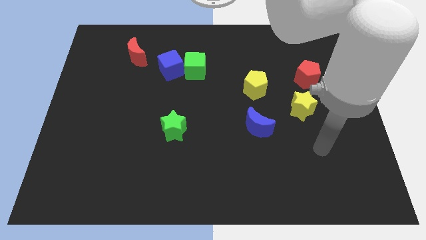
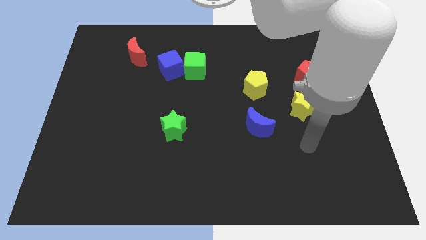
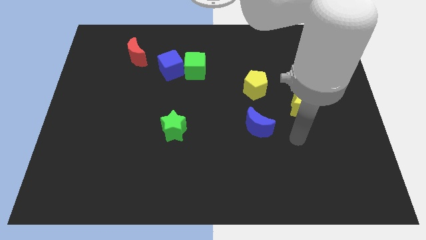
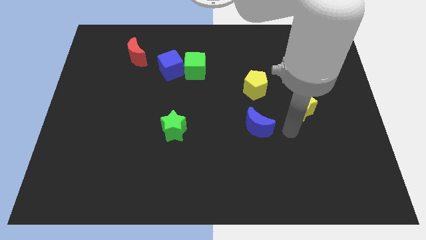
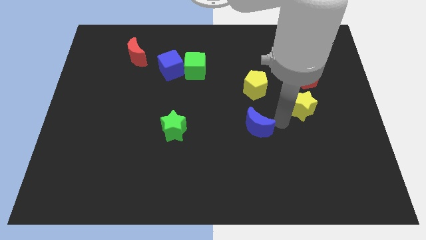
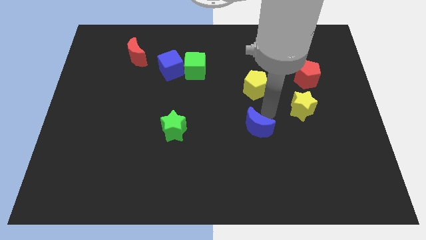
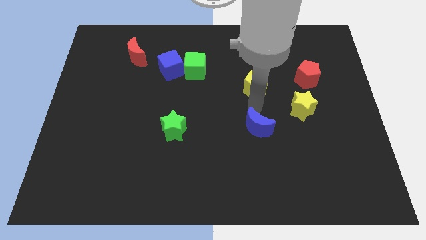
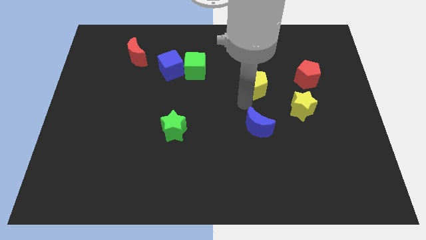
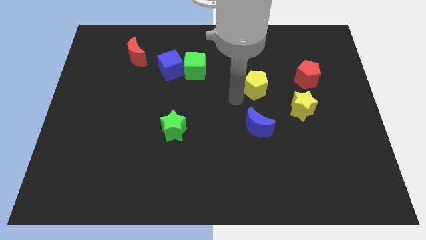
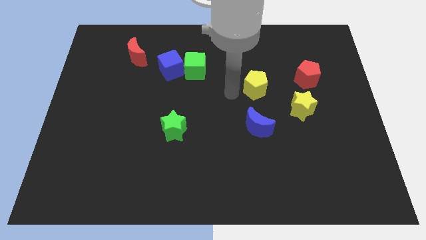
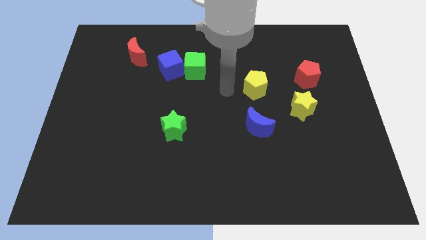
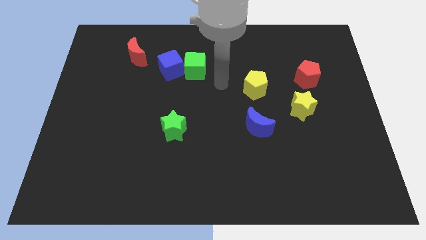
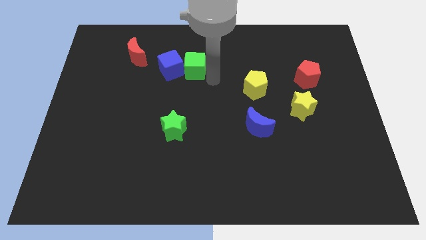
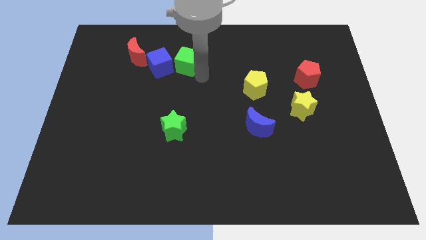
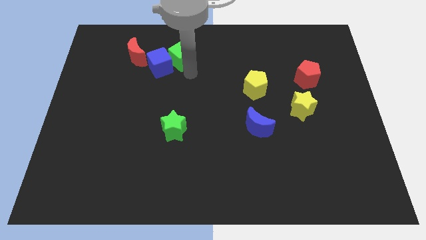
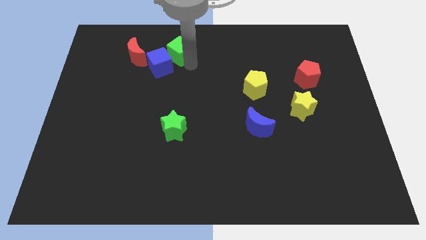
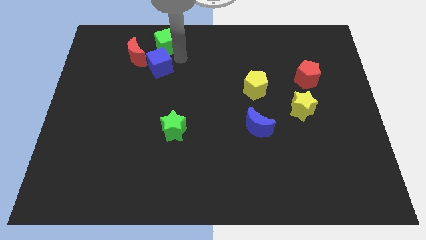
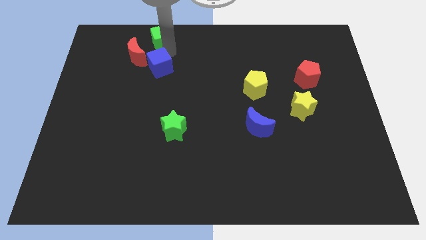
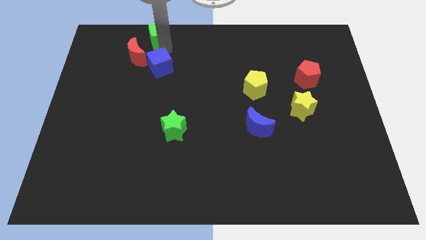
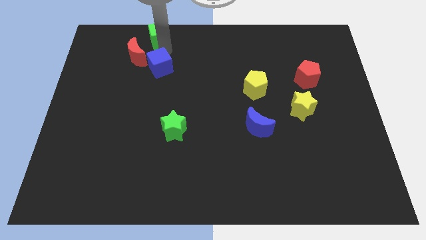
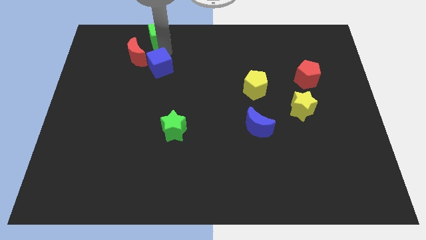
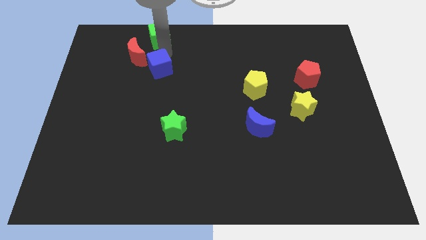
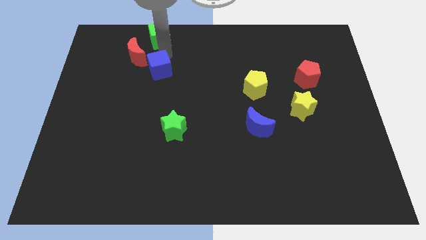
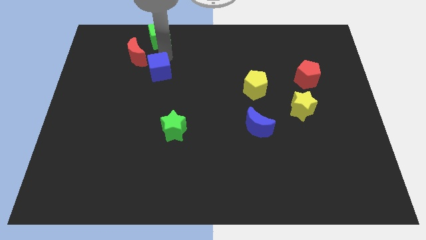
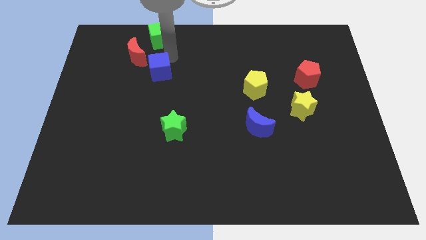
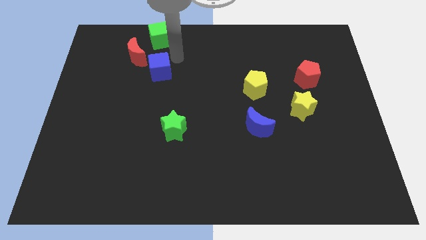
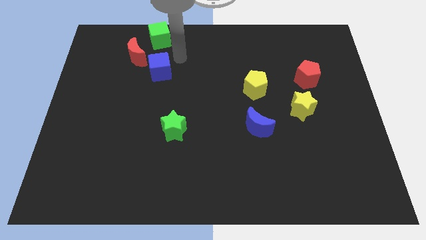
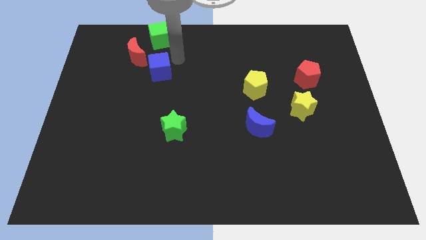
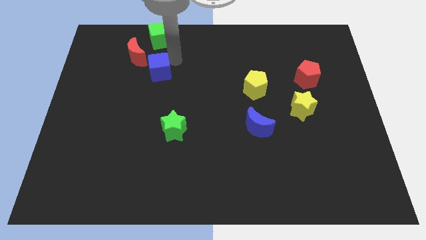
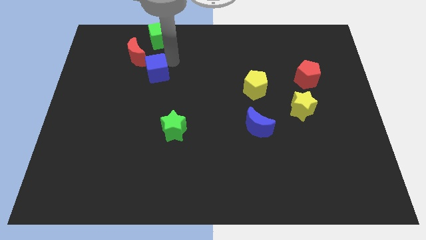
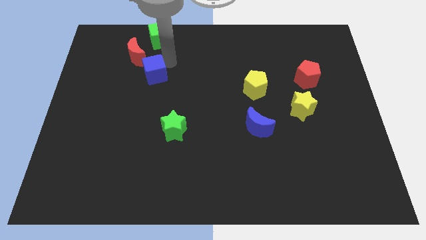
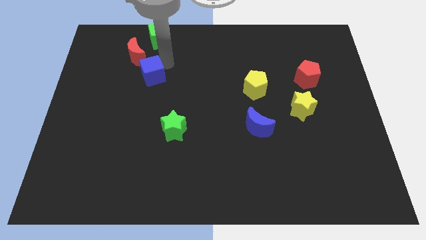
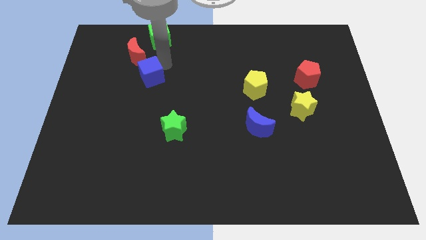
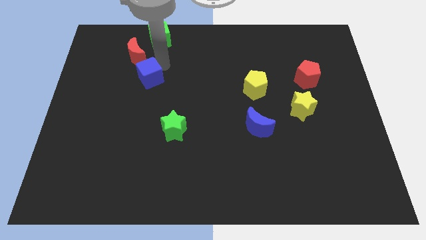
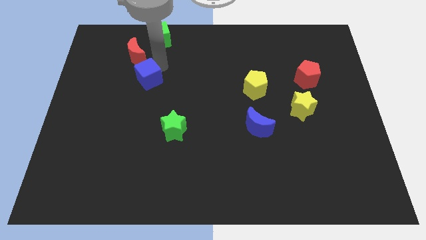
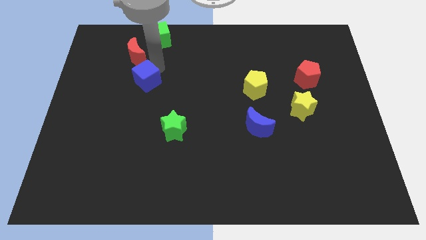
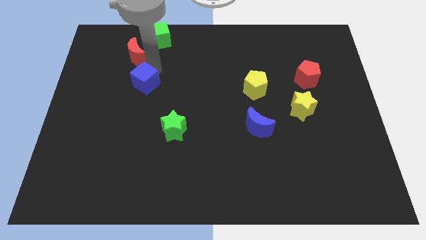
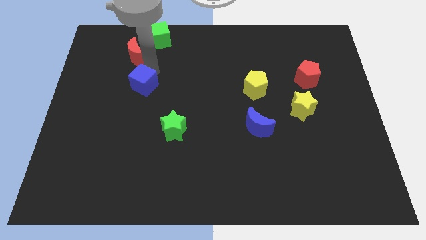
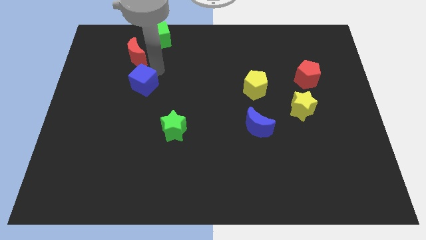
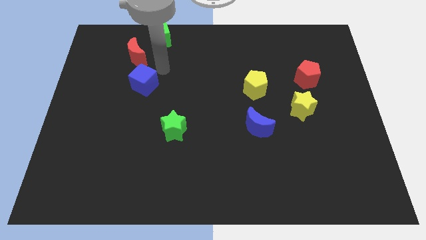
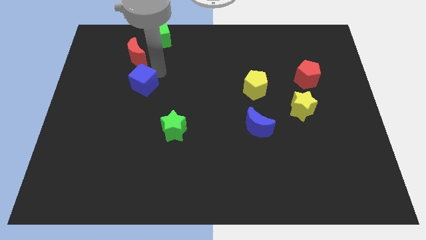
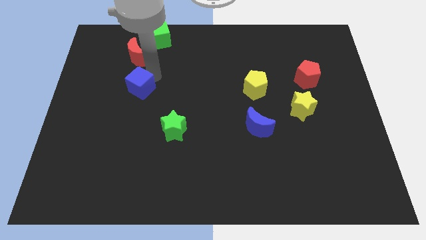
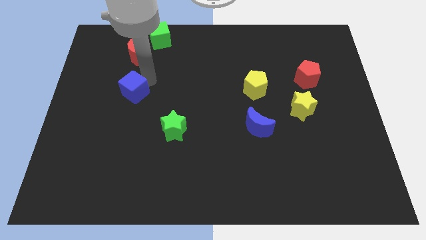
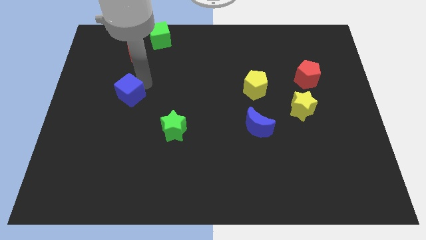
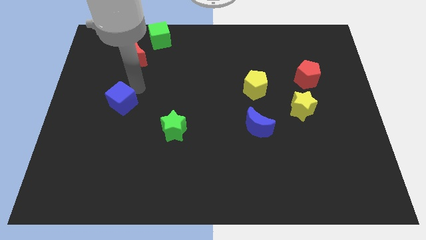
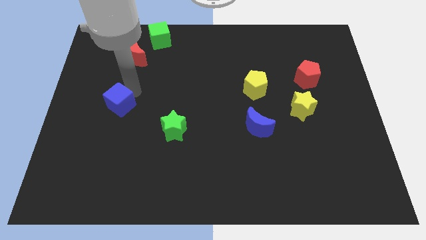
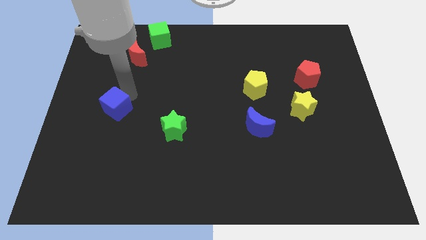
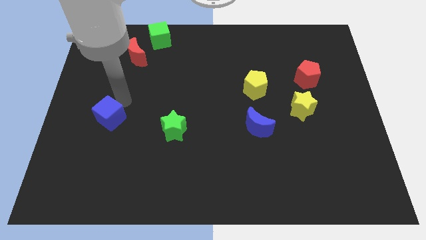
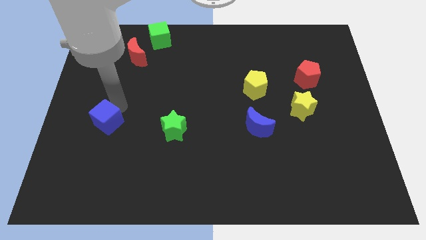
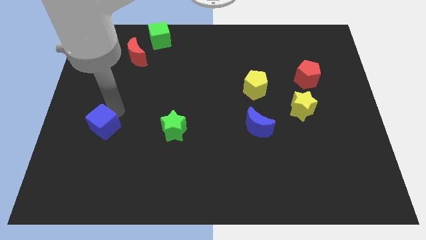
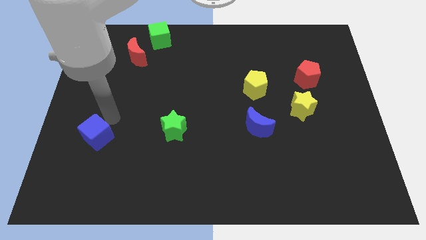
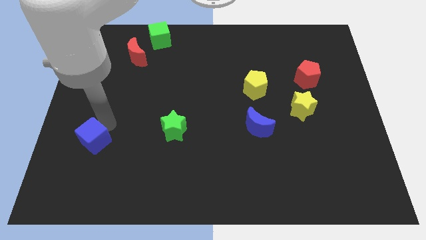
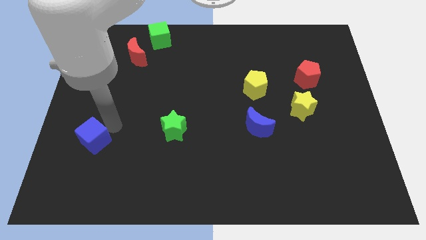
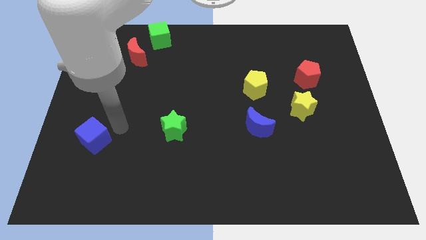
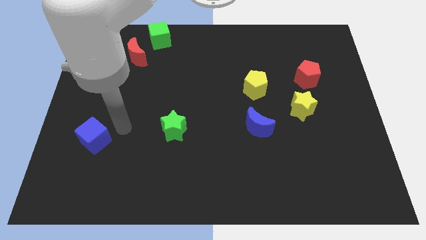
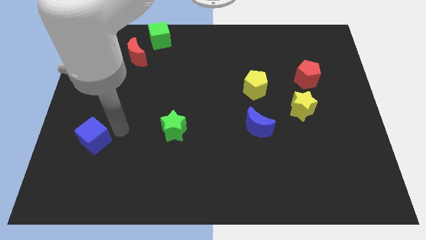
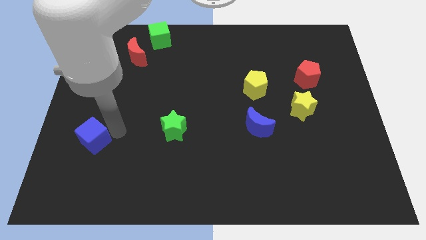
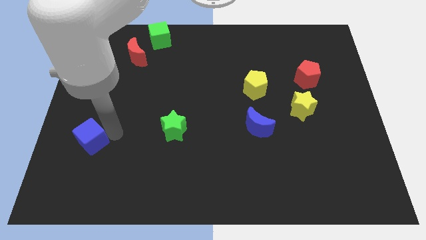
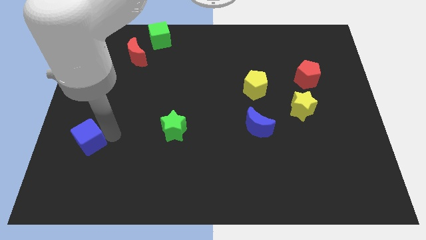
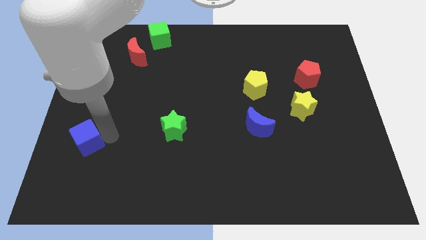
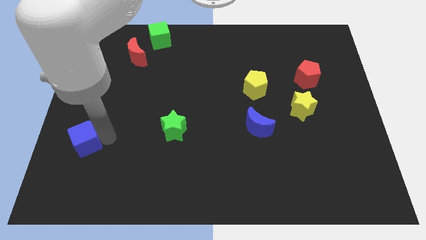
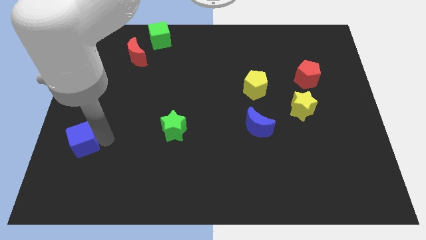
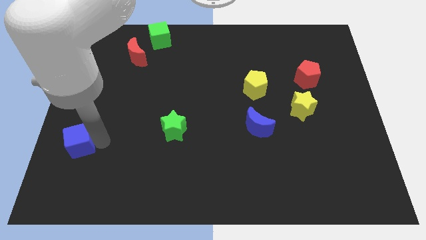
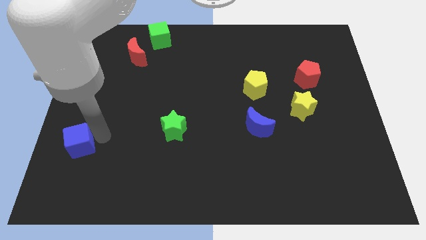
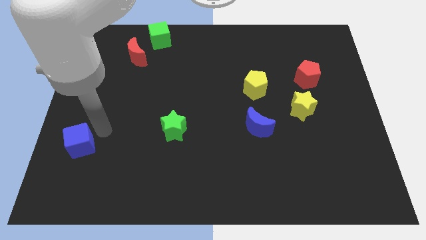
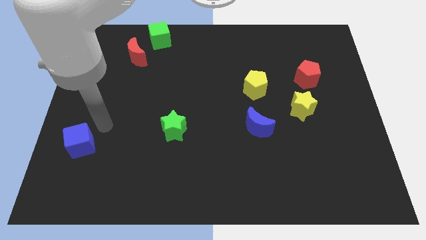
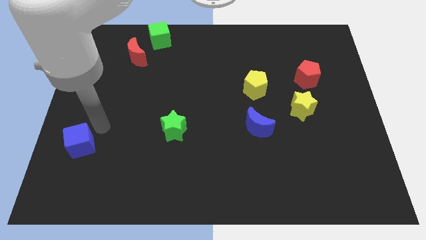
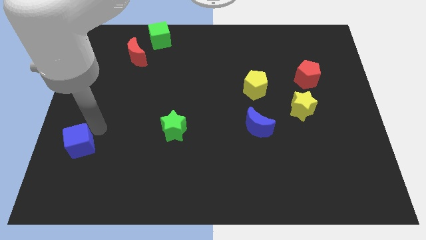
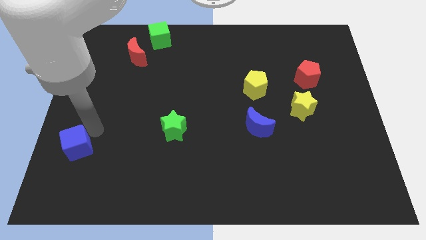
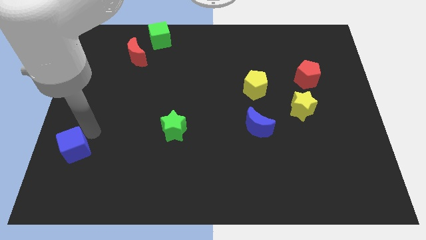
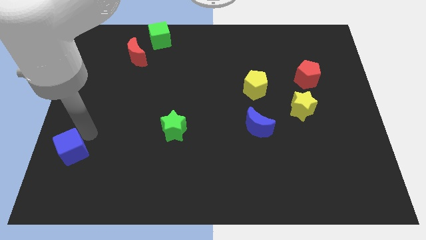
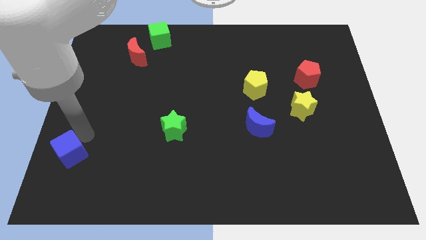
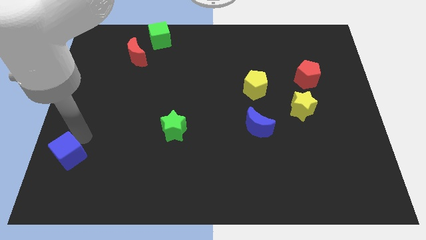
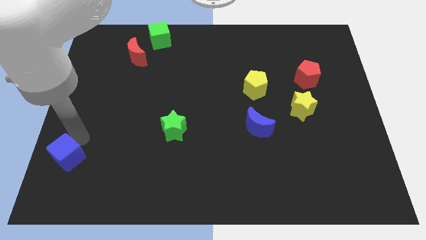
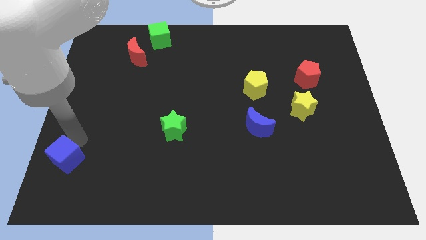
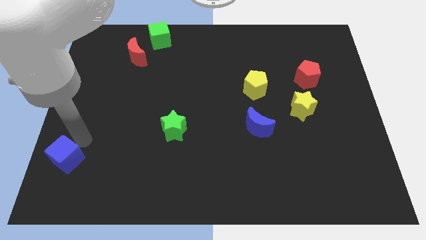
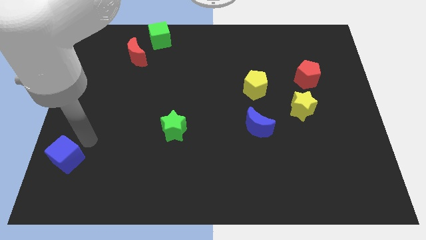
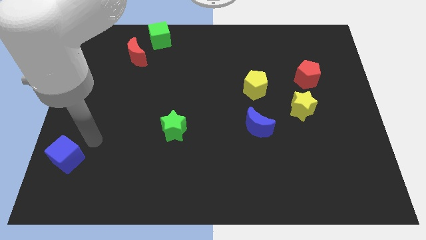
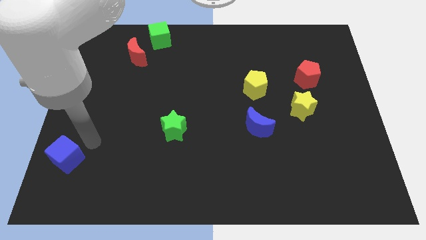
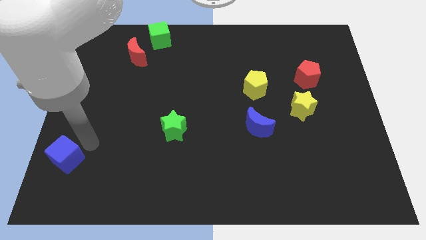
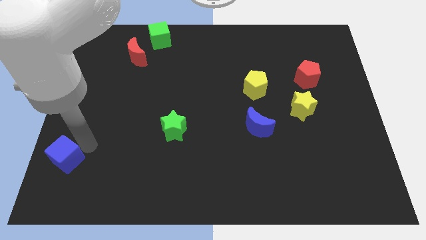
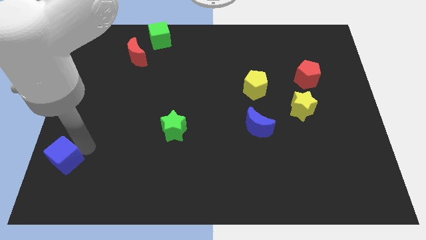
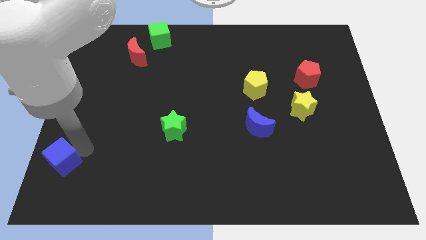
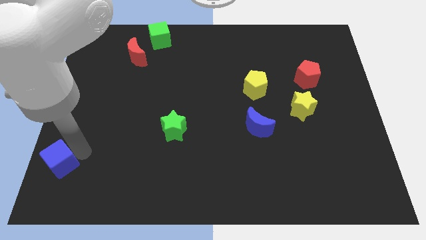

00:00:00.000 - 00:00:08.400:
put the blue cube to the bottom left of the board
